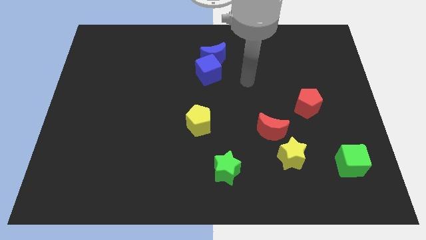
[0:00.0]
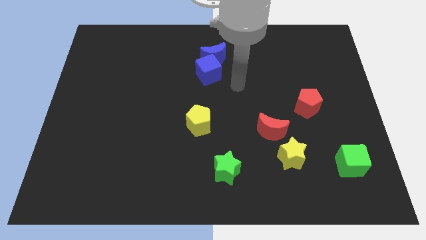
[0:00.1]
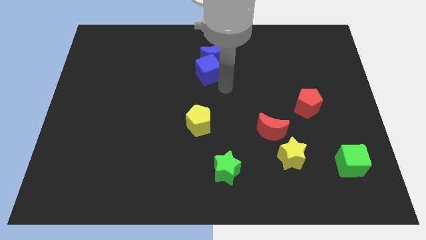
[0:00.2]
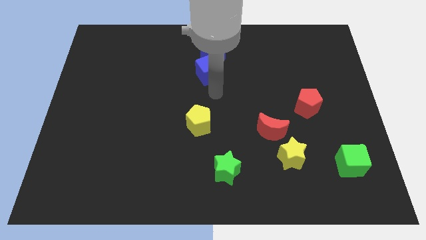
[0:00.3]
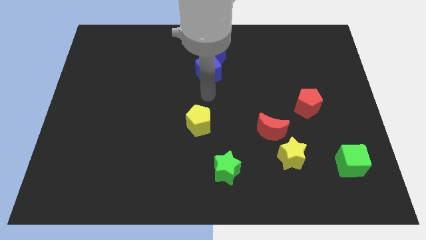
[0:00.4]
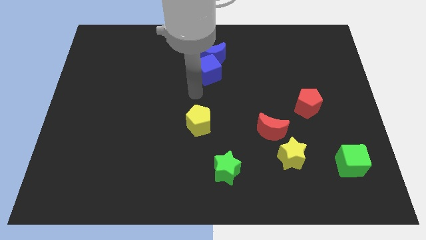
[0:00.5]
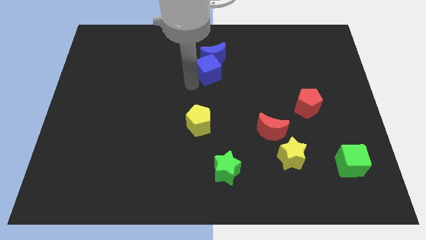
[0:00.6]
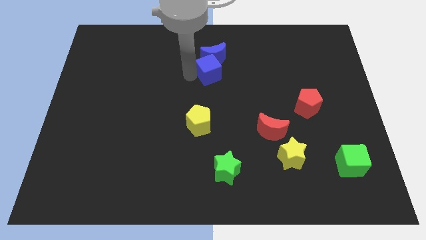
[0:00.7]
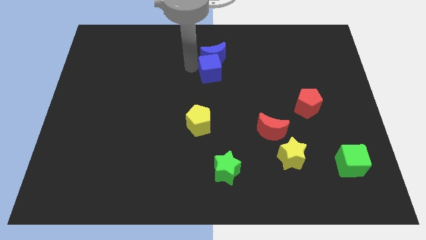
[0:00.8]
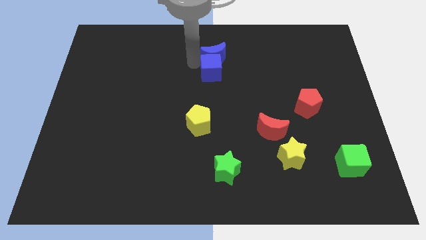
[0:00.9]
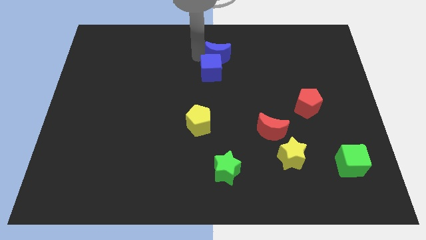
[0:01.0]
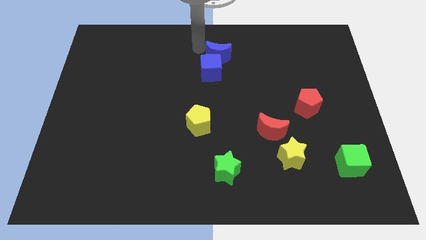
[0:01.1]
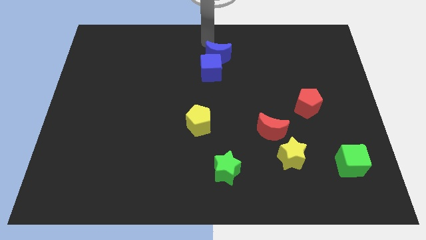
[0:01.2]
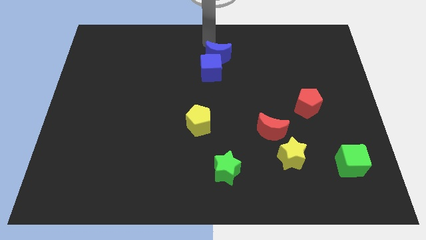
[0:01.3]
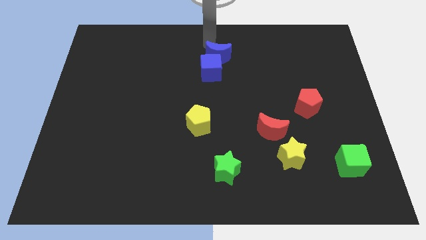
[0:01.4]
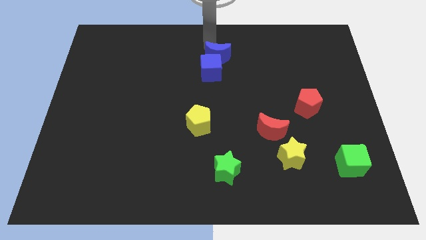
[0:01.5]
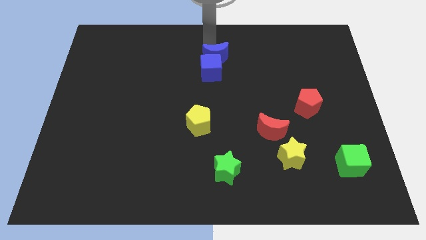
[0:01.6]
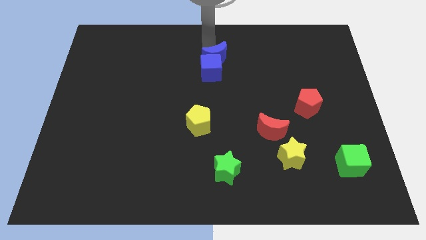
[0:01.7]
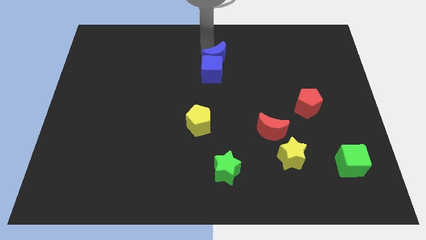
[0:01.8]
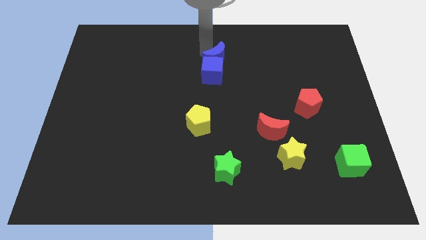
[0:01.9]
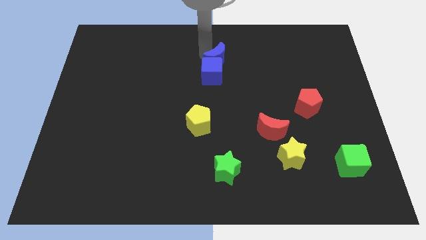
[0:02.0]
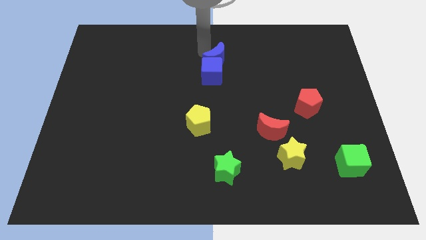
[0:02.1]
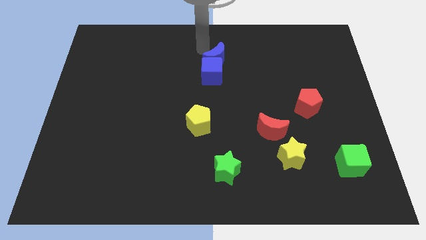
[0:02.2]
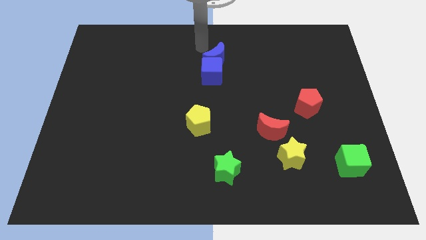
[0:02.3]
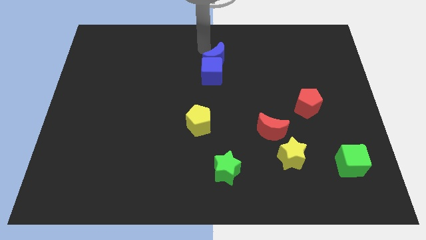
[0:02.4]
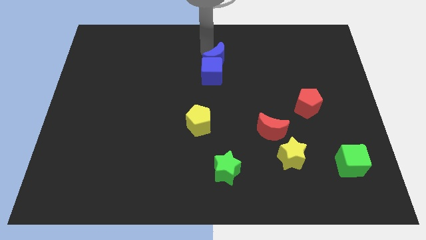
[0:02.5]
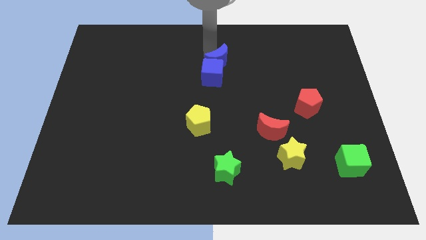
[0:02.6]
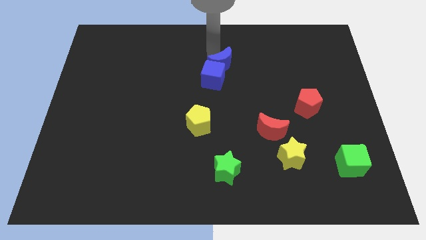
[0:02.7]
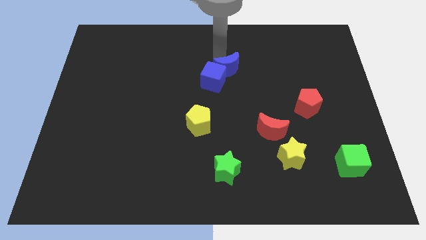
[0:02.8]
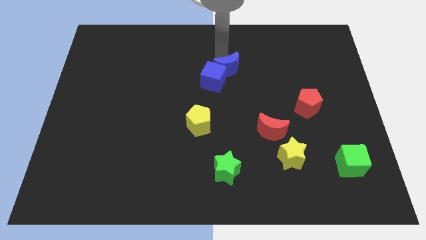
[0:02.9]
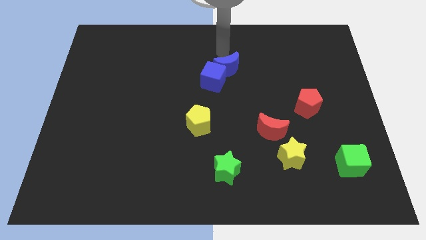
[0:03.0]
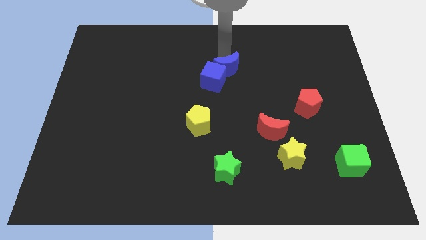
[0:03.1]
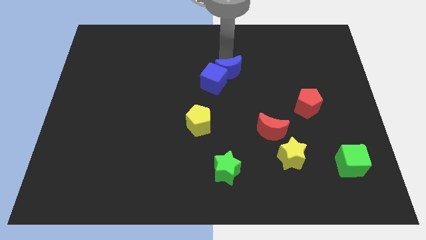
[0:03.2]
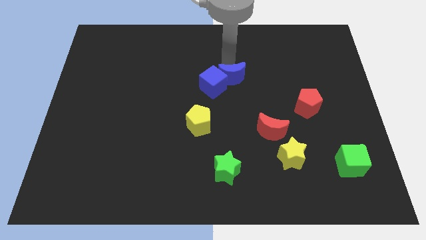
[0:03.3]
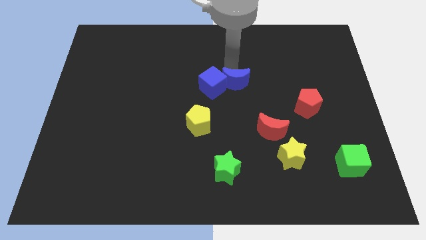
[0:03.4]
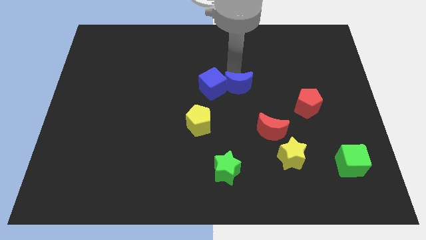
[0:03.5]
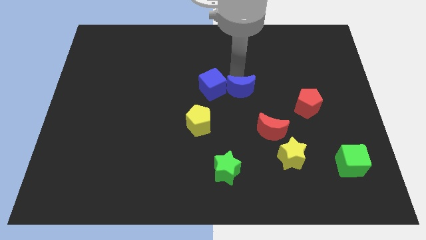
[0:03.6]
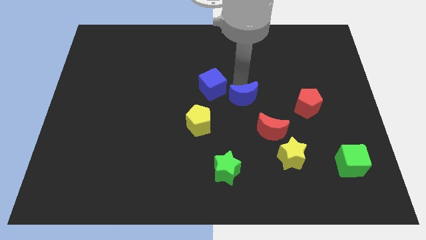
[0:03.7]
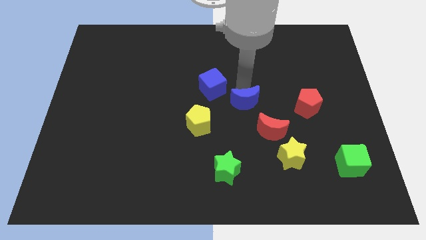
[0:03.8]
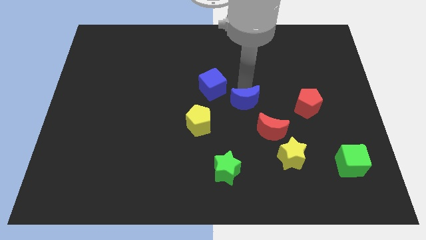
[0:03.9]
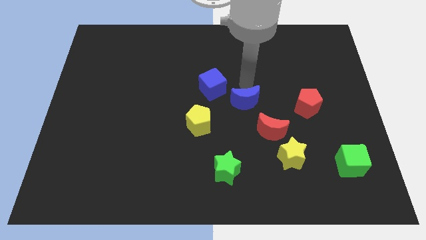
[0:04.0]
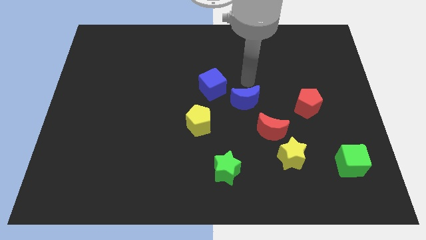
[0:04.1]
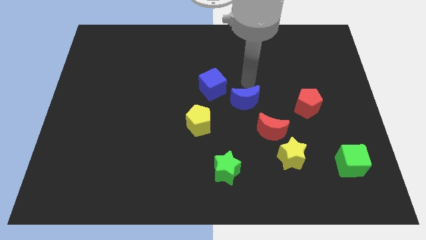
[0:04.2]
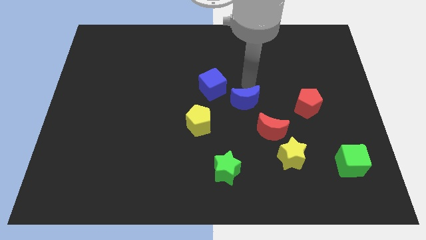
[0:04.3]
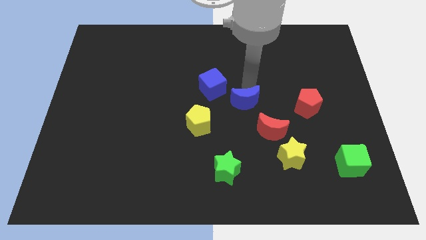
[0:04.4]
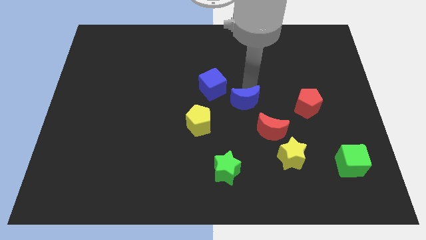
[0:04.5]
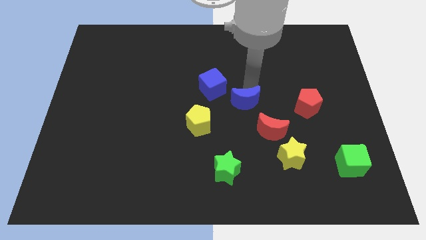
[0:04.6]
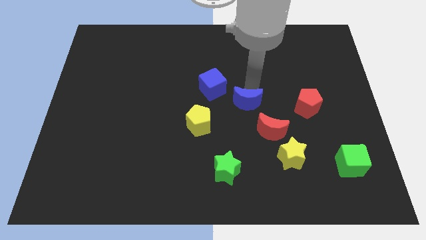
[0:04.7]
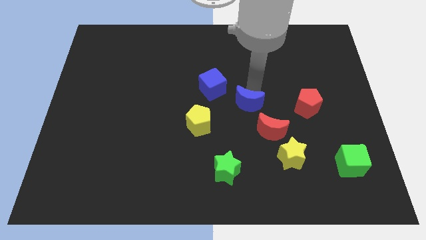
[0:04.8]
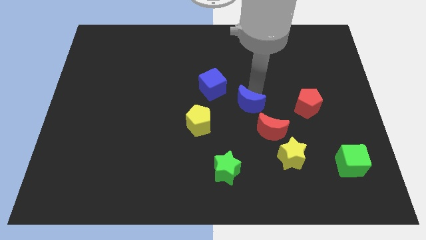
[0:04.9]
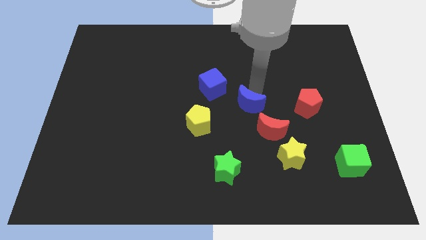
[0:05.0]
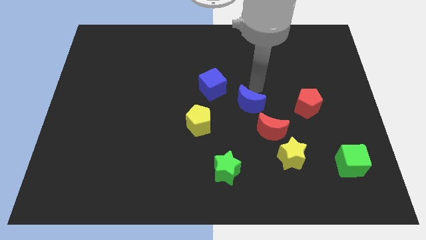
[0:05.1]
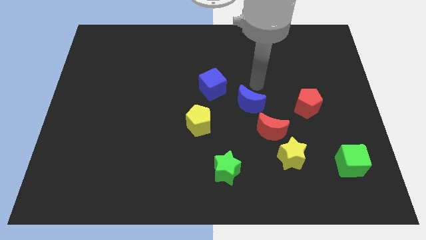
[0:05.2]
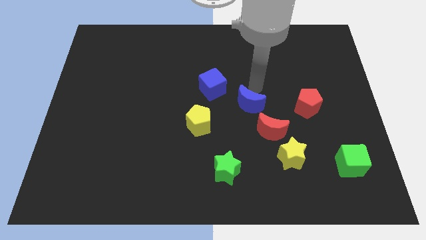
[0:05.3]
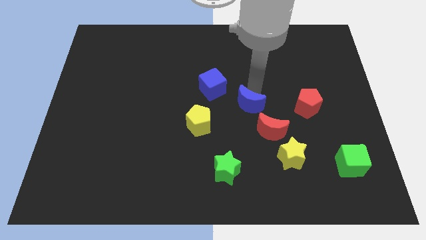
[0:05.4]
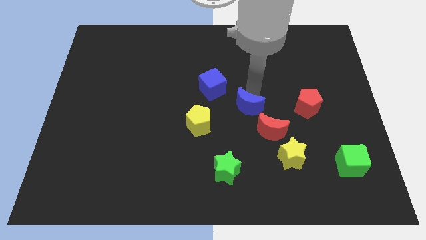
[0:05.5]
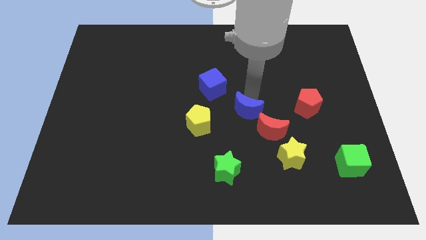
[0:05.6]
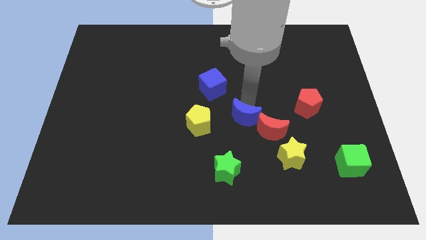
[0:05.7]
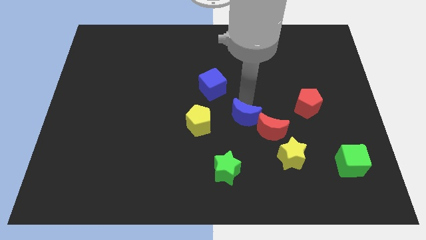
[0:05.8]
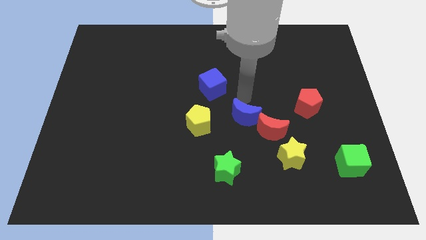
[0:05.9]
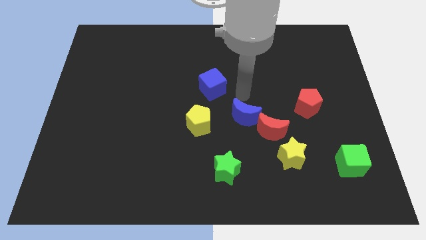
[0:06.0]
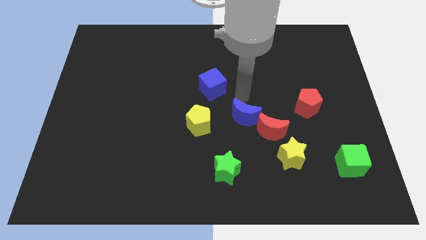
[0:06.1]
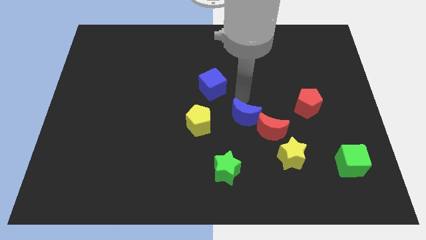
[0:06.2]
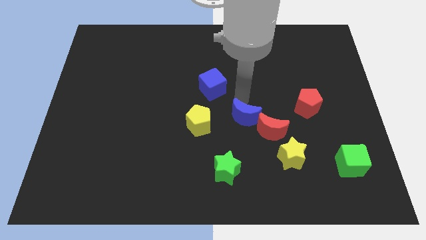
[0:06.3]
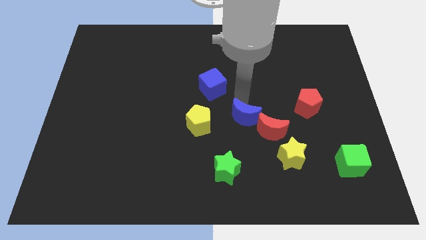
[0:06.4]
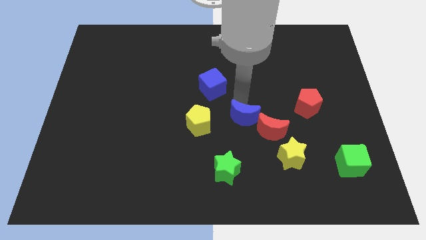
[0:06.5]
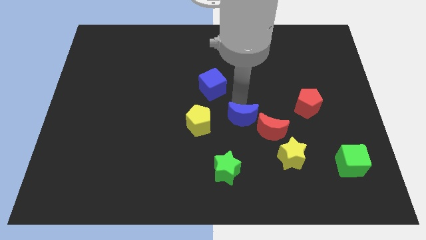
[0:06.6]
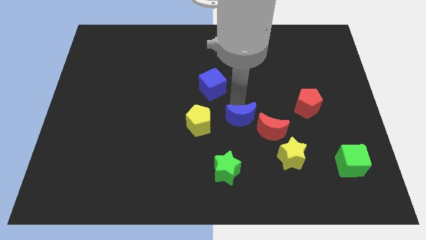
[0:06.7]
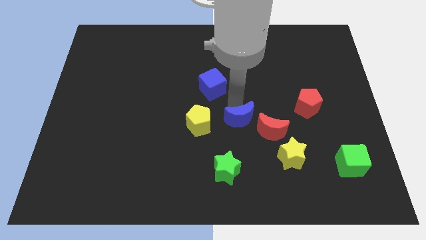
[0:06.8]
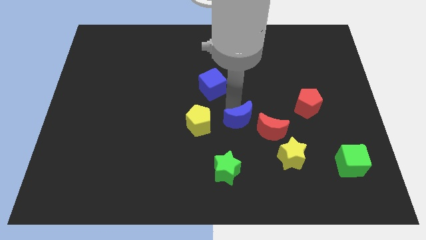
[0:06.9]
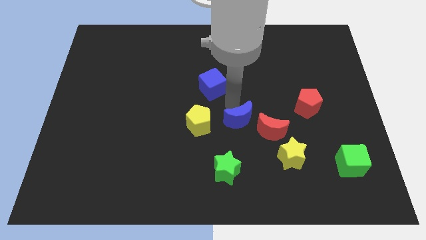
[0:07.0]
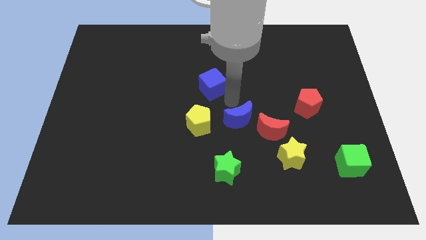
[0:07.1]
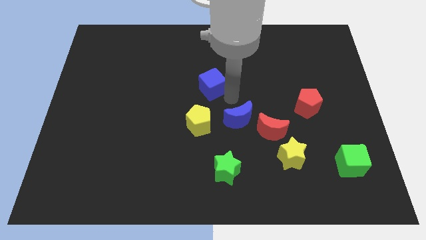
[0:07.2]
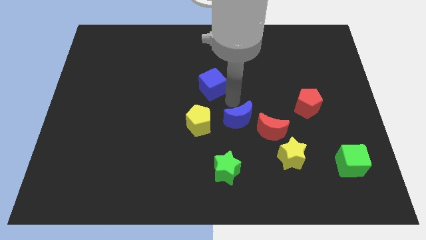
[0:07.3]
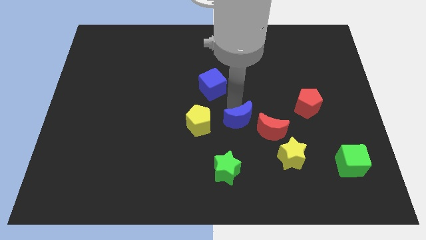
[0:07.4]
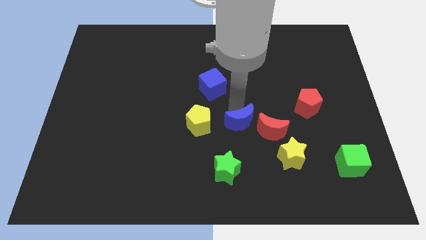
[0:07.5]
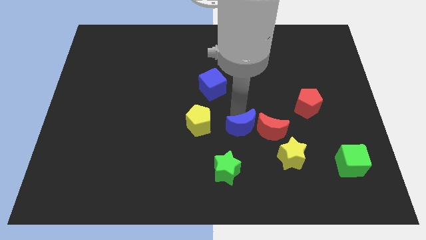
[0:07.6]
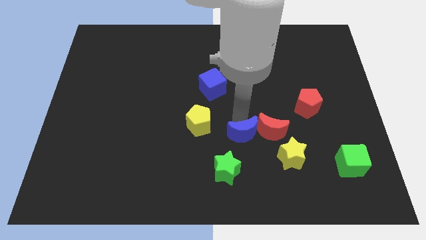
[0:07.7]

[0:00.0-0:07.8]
move the blue moon to the top right of the green star
